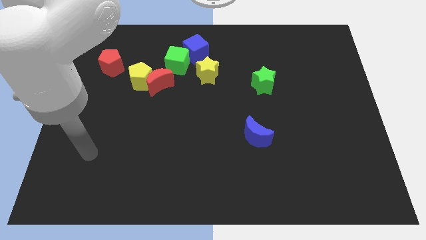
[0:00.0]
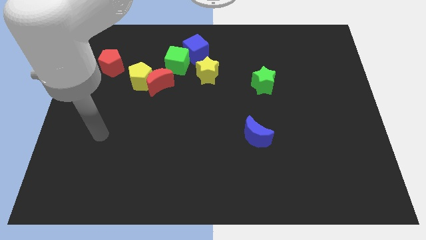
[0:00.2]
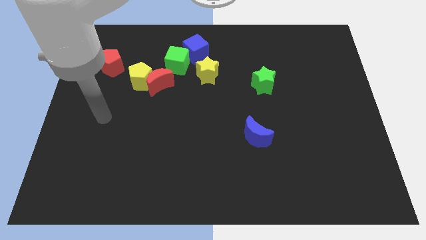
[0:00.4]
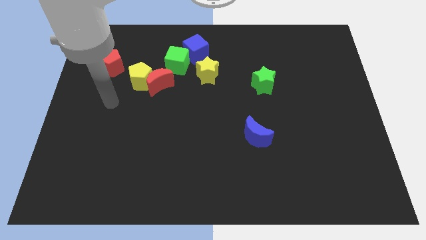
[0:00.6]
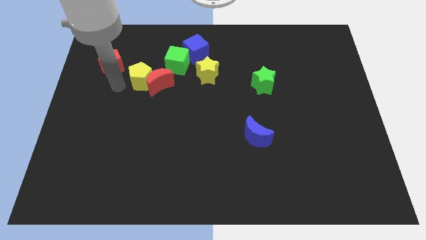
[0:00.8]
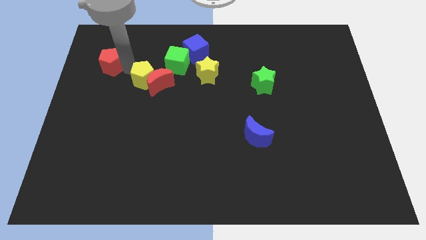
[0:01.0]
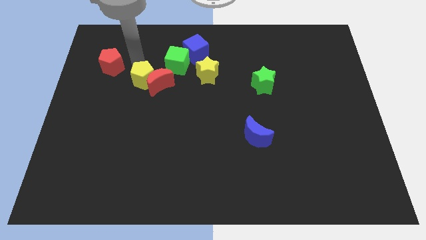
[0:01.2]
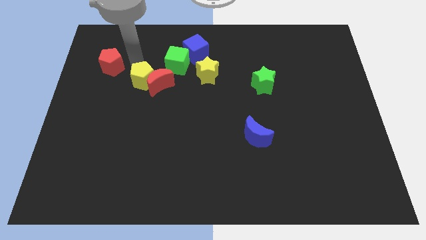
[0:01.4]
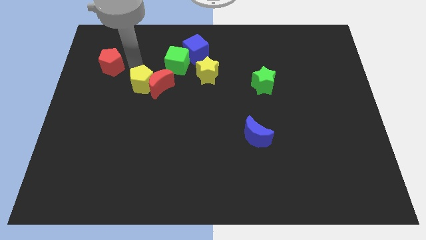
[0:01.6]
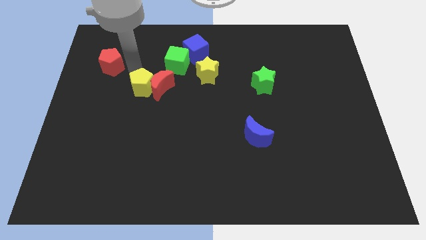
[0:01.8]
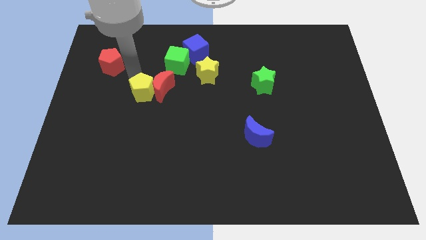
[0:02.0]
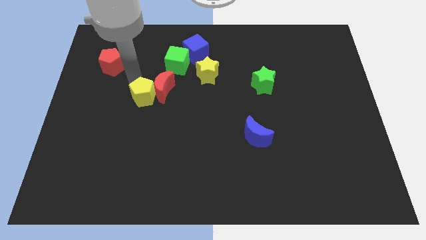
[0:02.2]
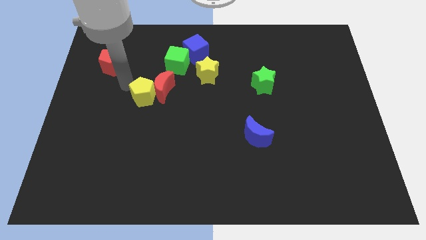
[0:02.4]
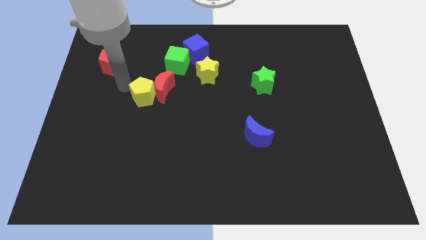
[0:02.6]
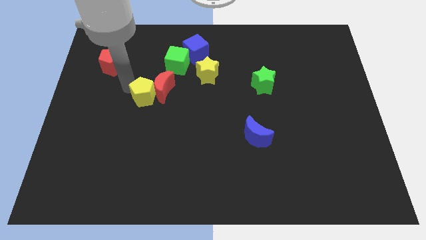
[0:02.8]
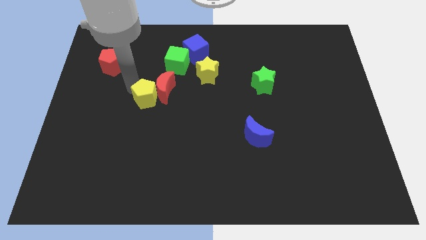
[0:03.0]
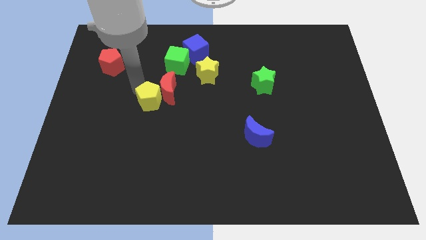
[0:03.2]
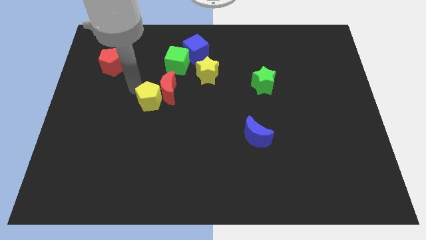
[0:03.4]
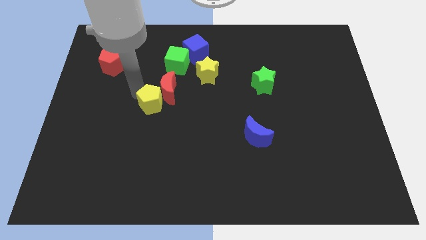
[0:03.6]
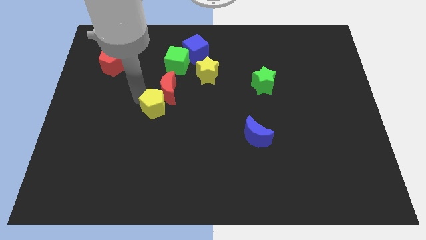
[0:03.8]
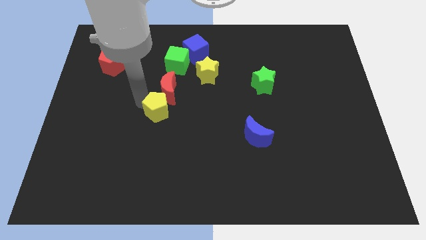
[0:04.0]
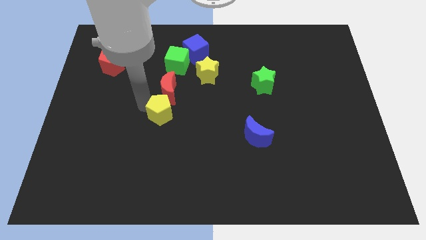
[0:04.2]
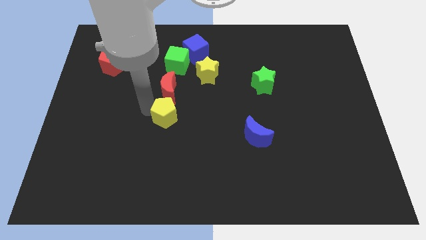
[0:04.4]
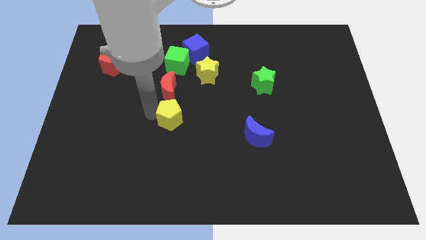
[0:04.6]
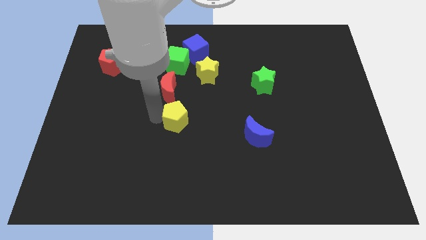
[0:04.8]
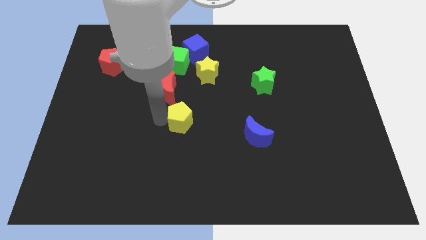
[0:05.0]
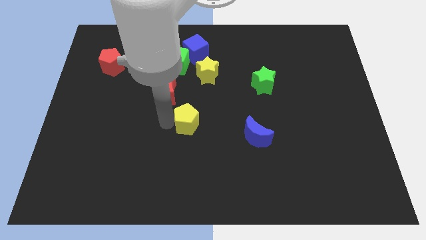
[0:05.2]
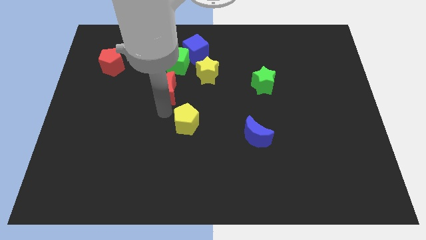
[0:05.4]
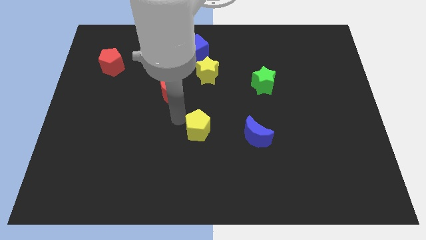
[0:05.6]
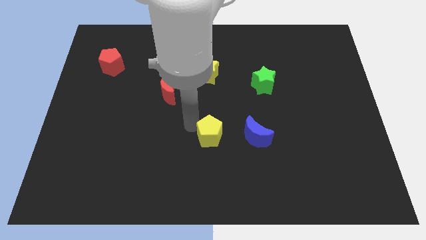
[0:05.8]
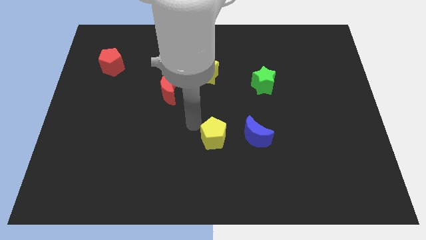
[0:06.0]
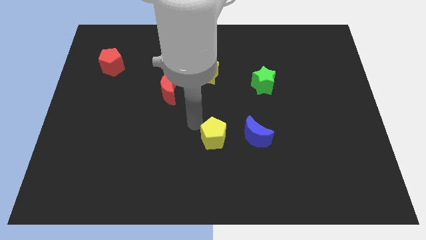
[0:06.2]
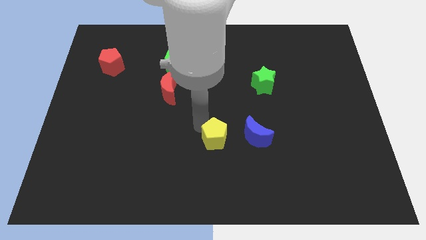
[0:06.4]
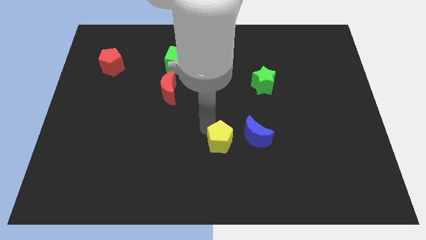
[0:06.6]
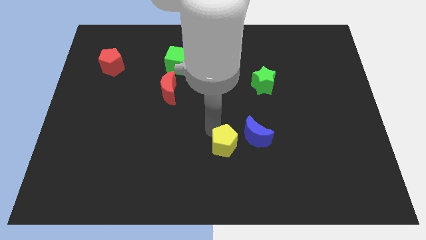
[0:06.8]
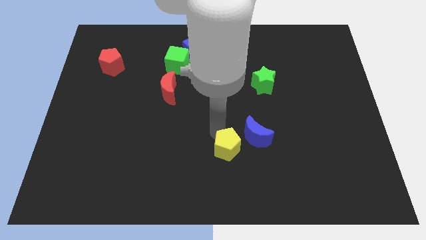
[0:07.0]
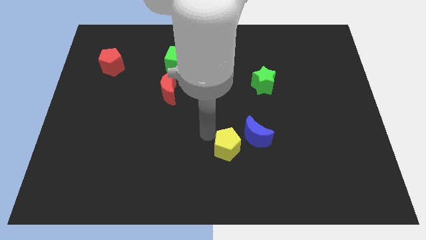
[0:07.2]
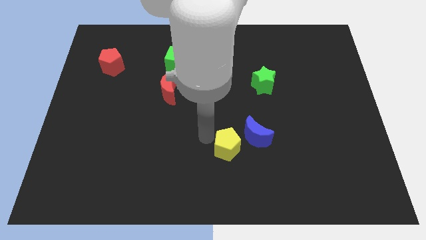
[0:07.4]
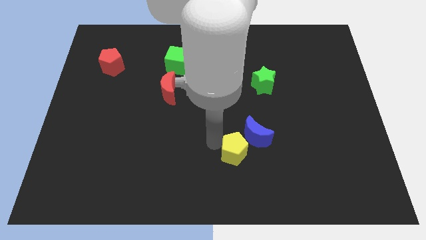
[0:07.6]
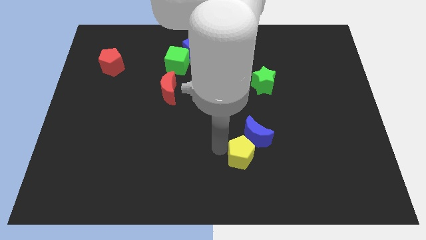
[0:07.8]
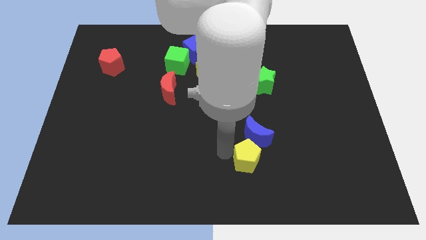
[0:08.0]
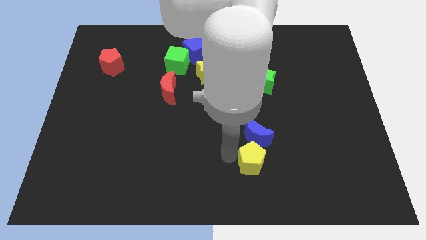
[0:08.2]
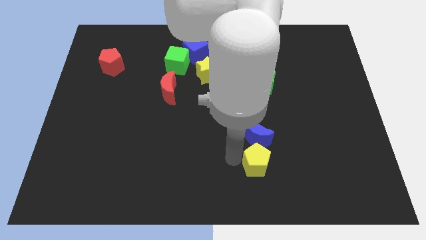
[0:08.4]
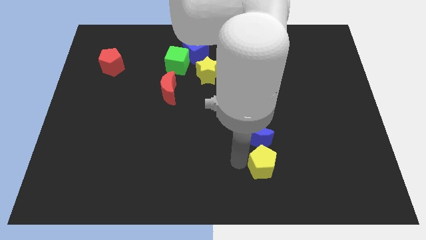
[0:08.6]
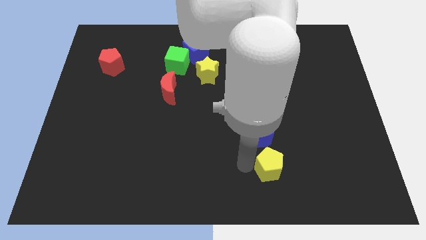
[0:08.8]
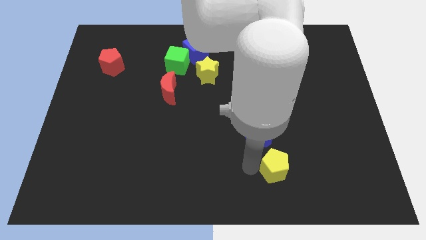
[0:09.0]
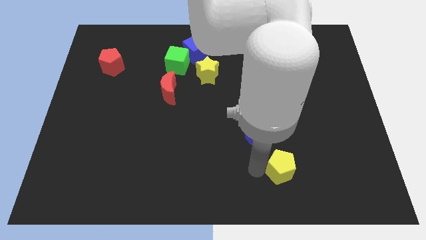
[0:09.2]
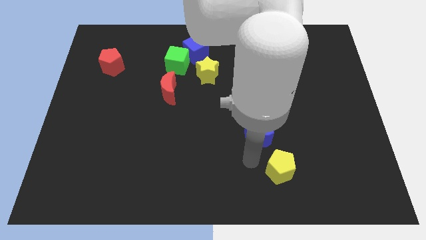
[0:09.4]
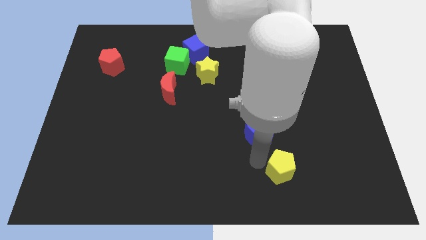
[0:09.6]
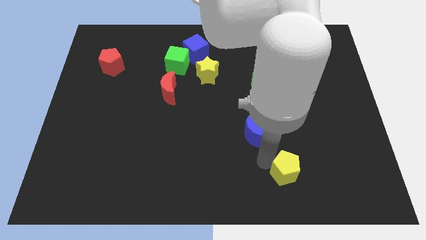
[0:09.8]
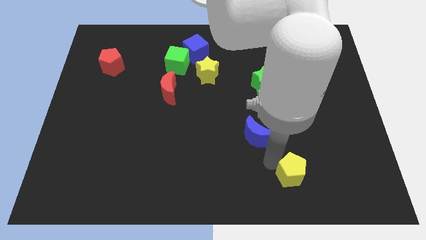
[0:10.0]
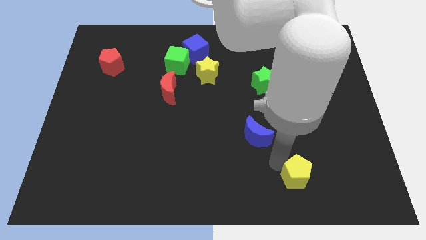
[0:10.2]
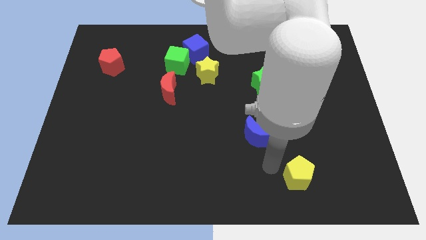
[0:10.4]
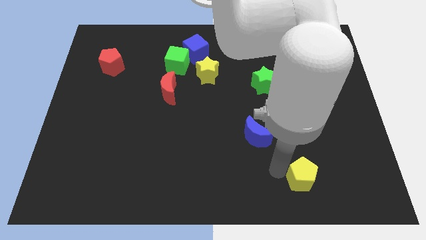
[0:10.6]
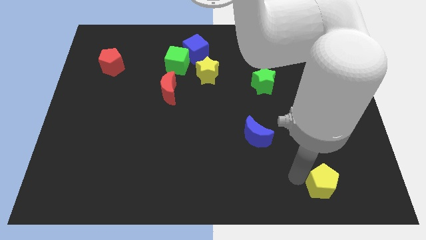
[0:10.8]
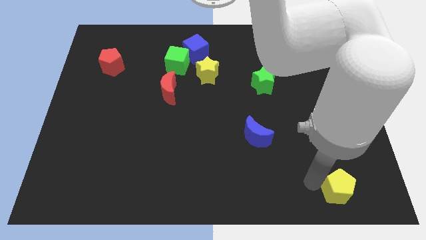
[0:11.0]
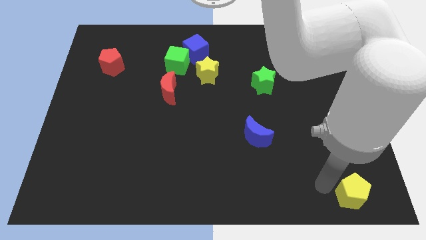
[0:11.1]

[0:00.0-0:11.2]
push the yellow pentagon to the bottom right corner
